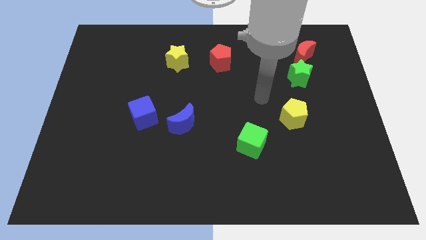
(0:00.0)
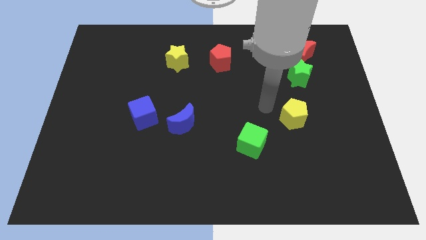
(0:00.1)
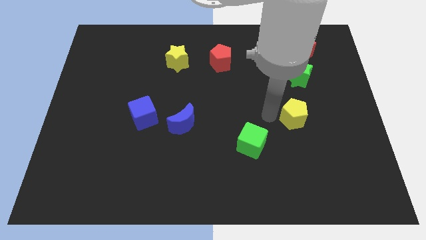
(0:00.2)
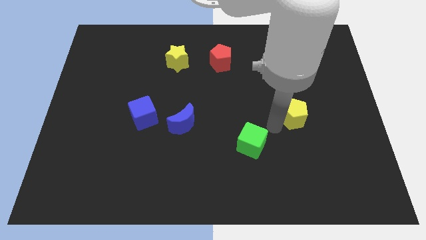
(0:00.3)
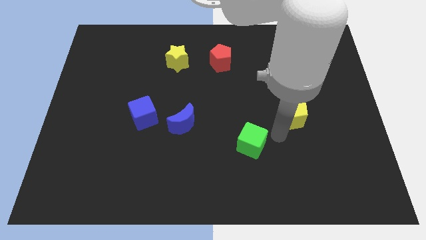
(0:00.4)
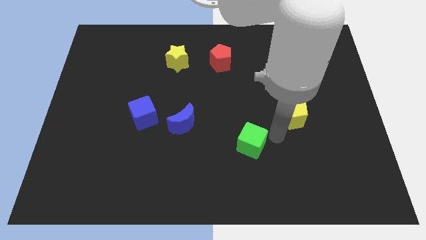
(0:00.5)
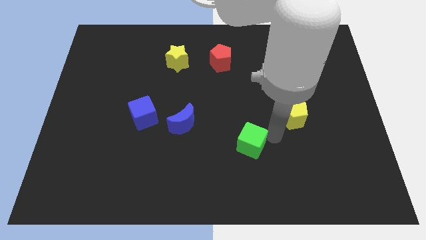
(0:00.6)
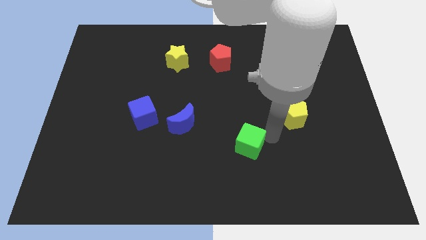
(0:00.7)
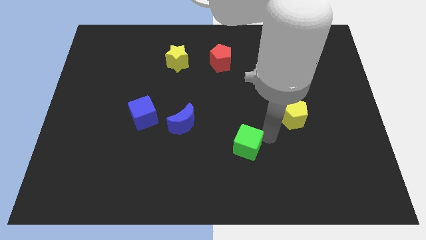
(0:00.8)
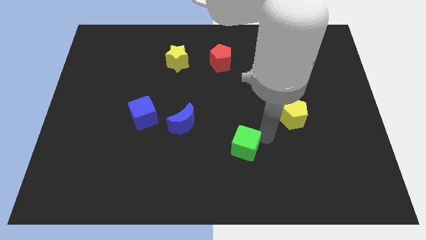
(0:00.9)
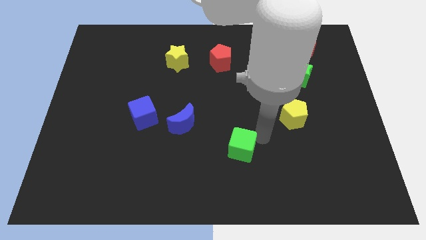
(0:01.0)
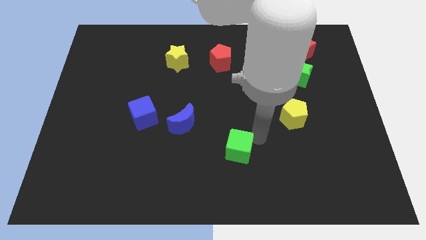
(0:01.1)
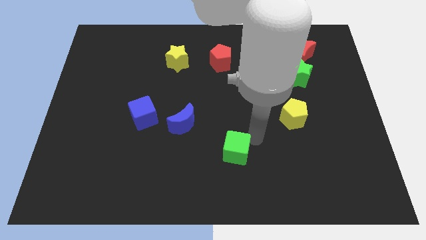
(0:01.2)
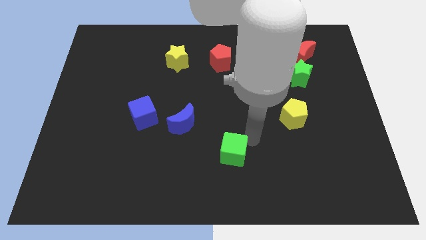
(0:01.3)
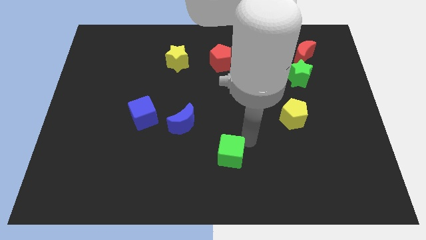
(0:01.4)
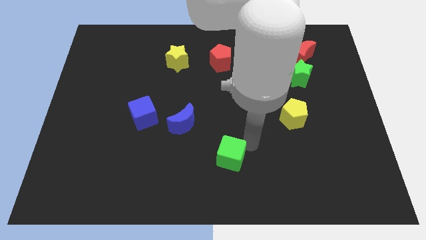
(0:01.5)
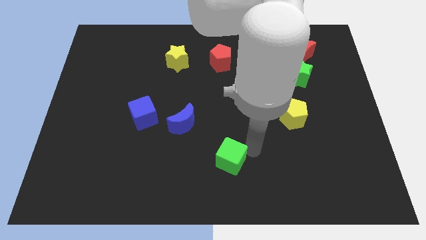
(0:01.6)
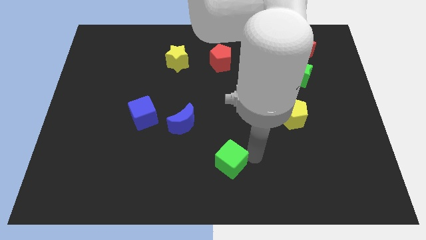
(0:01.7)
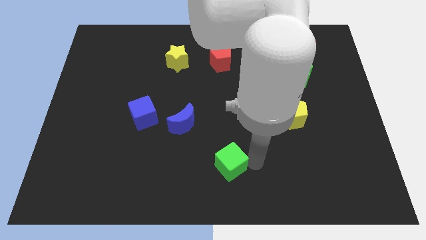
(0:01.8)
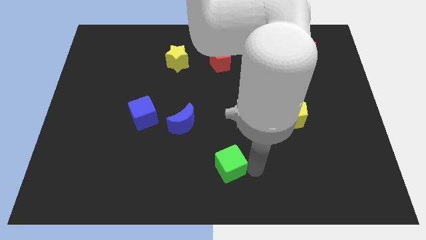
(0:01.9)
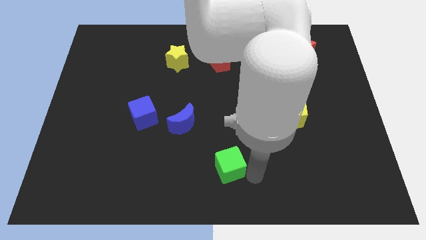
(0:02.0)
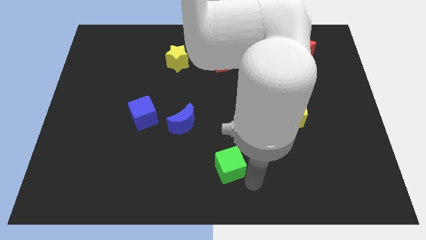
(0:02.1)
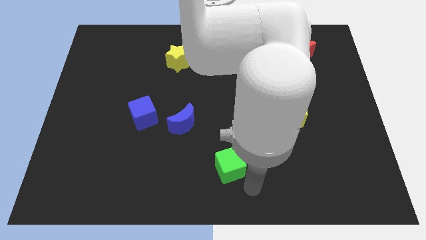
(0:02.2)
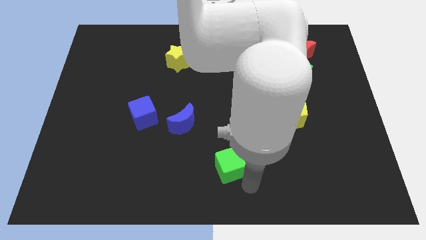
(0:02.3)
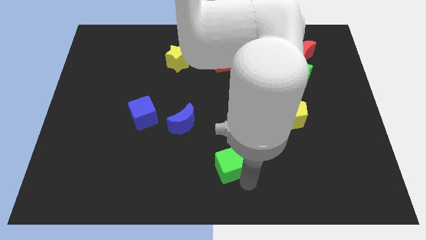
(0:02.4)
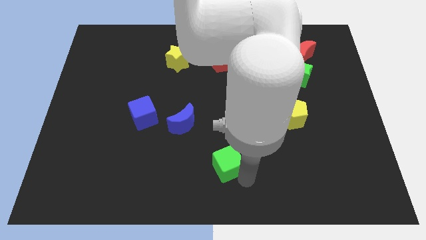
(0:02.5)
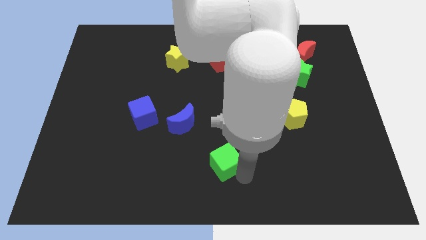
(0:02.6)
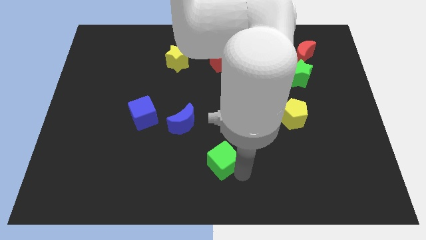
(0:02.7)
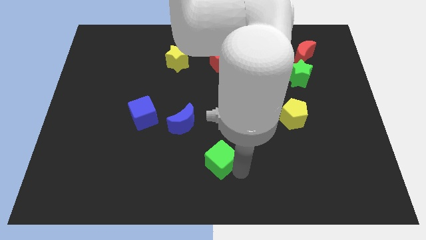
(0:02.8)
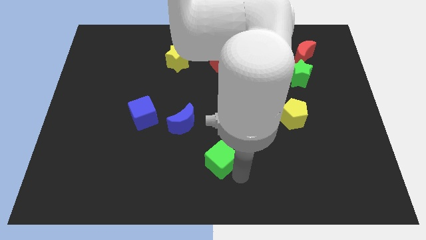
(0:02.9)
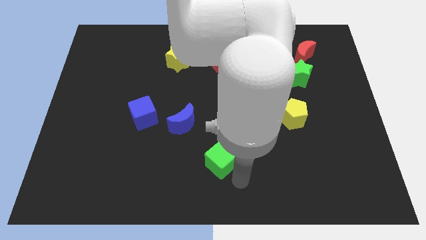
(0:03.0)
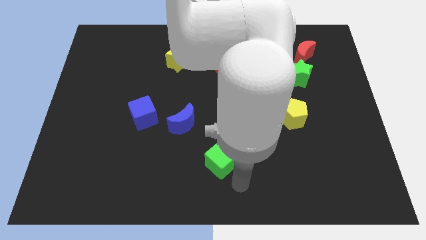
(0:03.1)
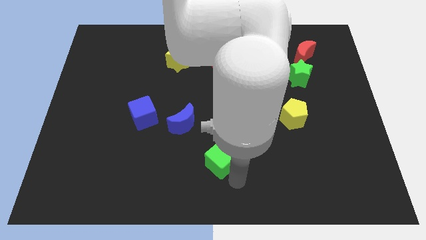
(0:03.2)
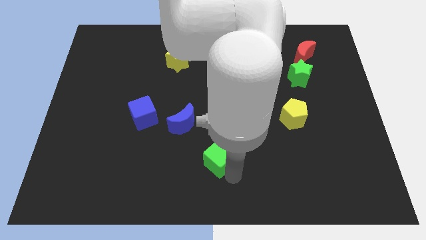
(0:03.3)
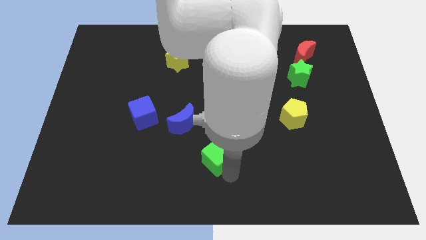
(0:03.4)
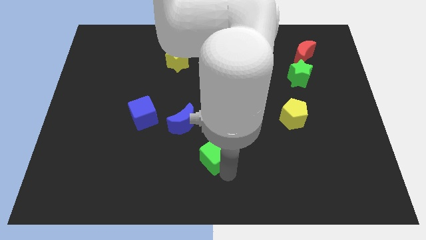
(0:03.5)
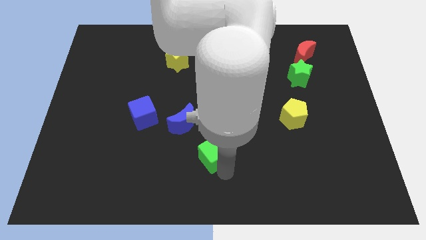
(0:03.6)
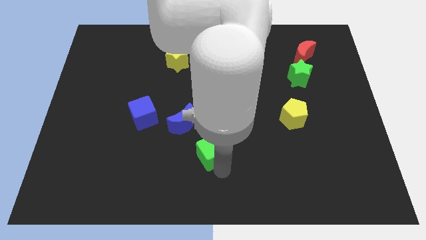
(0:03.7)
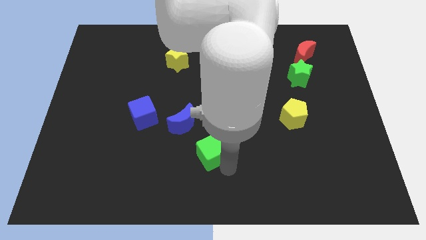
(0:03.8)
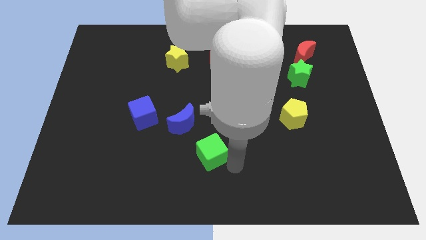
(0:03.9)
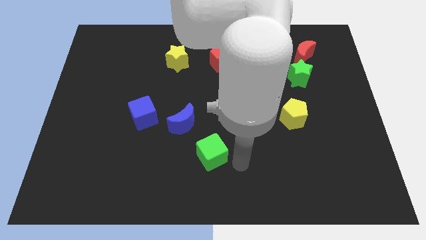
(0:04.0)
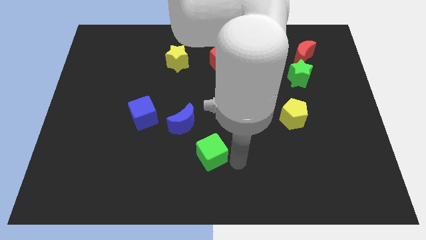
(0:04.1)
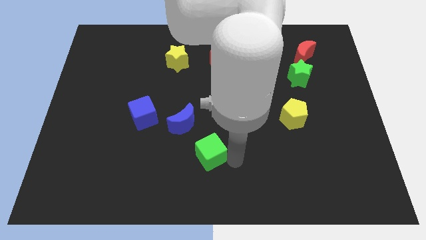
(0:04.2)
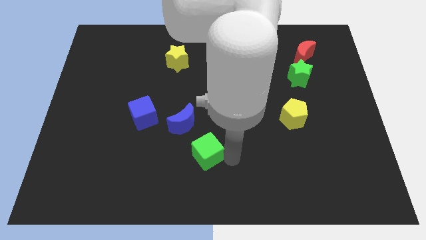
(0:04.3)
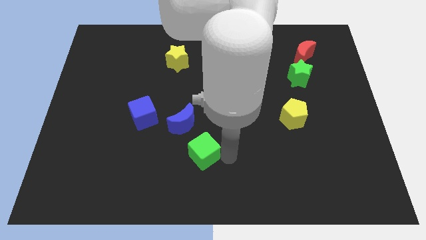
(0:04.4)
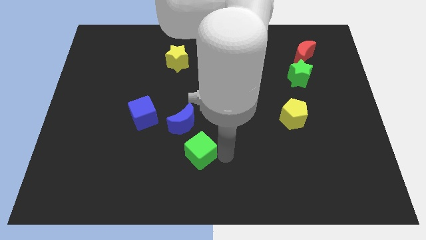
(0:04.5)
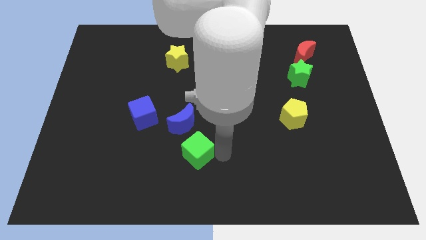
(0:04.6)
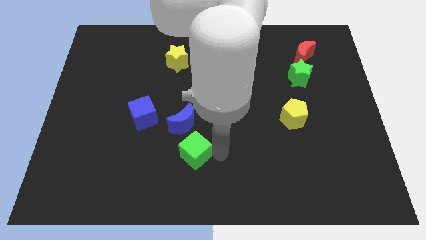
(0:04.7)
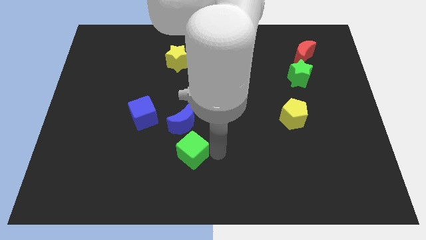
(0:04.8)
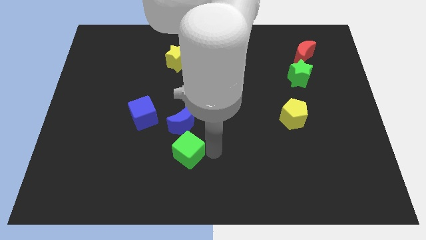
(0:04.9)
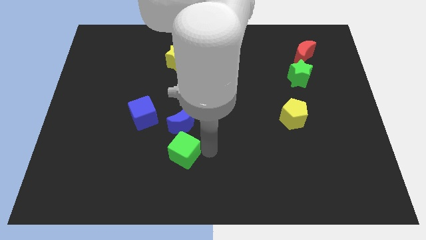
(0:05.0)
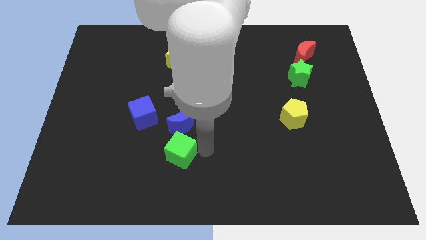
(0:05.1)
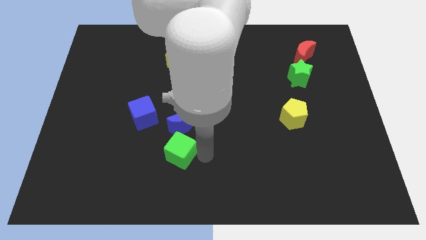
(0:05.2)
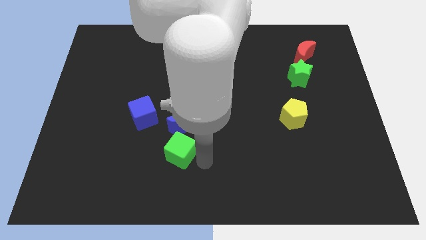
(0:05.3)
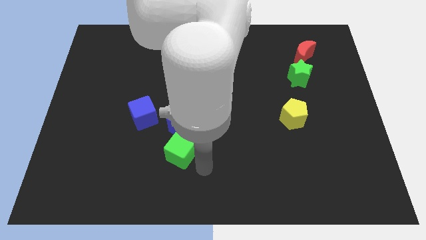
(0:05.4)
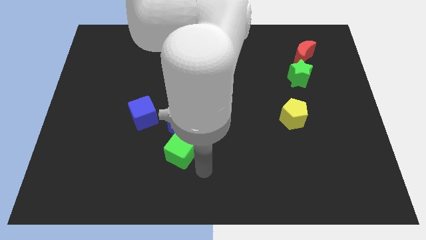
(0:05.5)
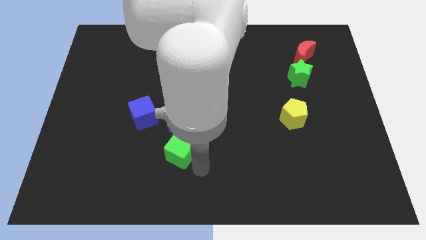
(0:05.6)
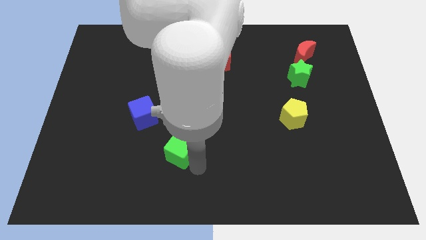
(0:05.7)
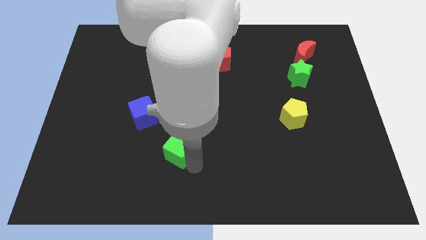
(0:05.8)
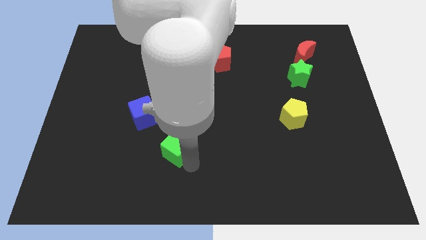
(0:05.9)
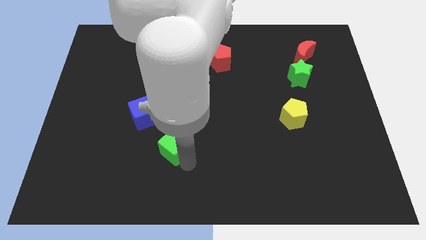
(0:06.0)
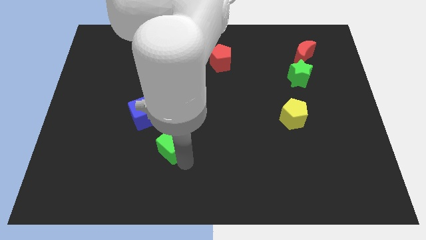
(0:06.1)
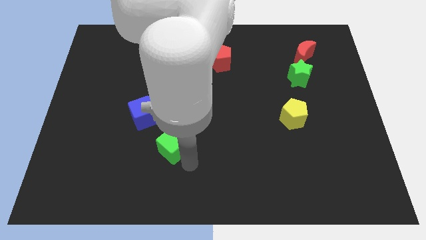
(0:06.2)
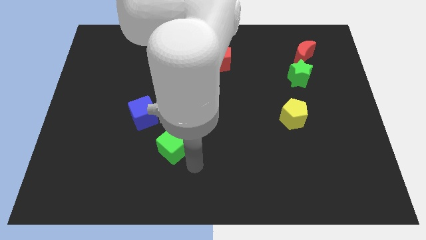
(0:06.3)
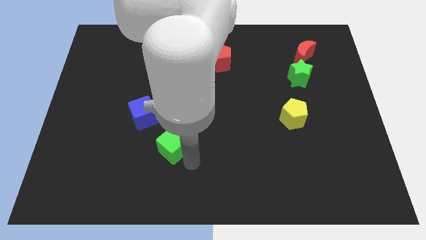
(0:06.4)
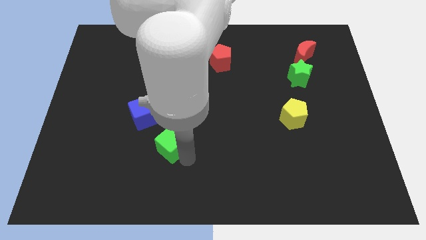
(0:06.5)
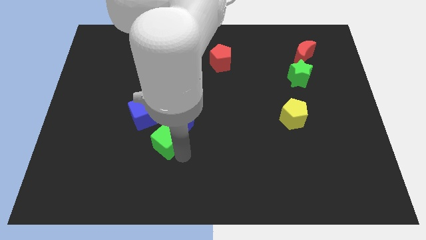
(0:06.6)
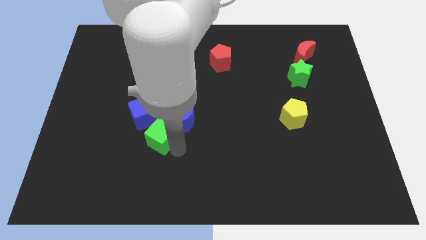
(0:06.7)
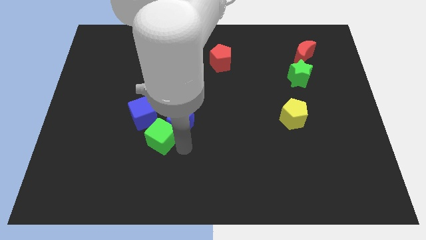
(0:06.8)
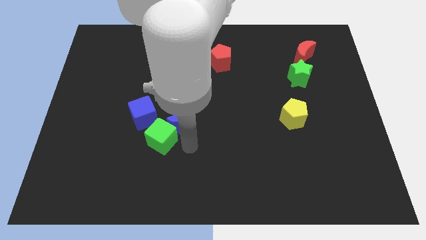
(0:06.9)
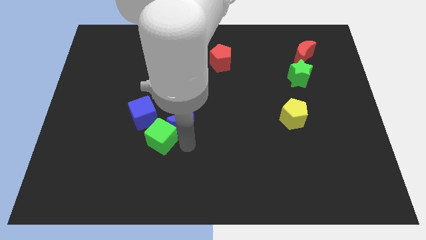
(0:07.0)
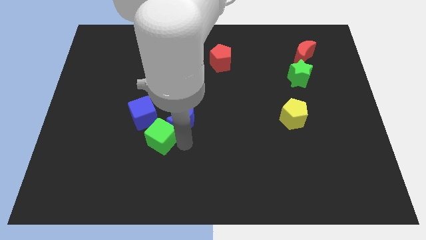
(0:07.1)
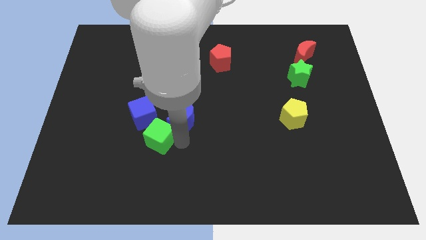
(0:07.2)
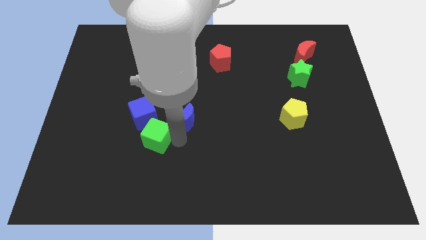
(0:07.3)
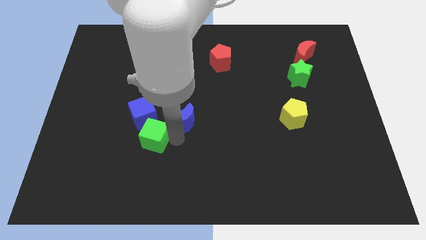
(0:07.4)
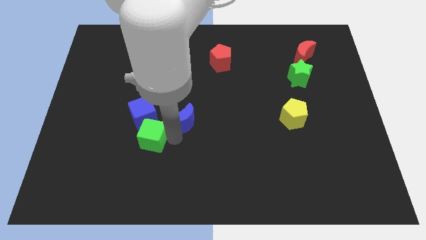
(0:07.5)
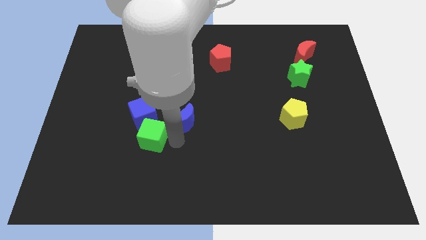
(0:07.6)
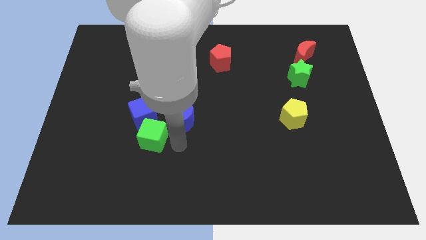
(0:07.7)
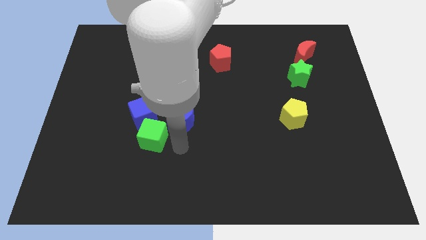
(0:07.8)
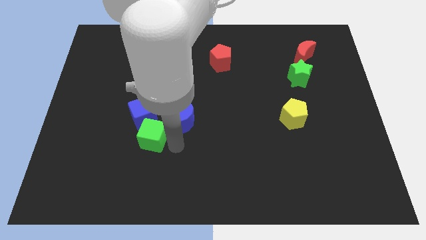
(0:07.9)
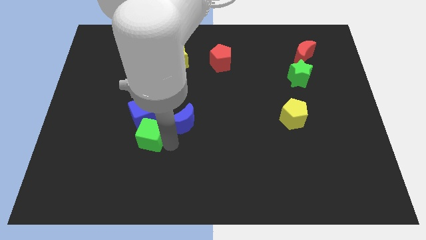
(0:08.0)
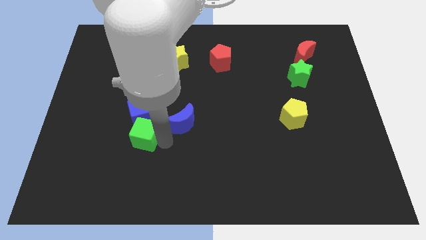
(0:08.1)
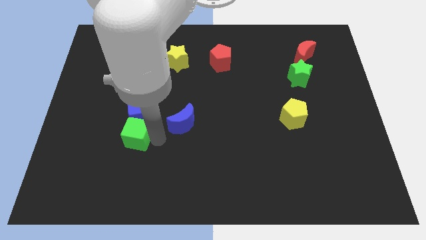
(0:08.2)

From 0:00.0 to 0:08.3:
move the green cube diagonally down and to the left of the blue cube
